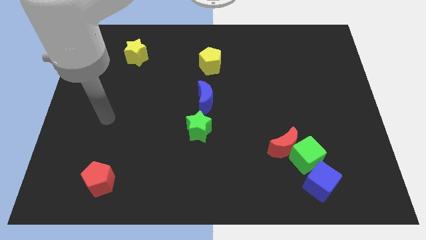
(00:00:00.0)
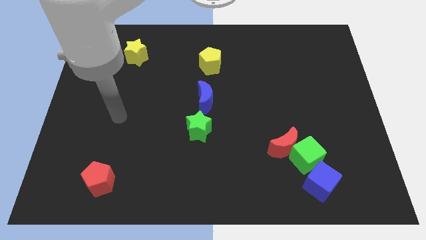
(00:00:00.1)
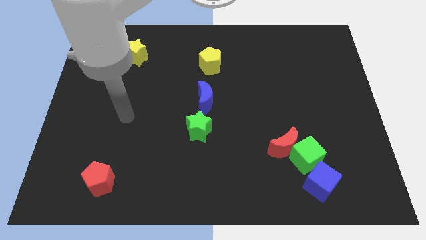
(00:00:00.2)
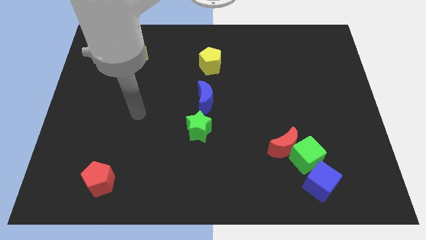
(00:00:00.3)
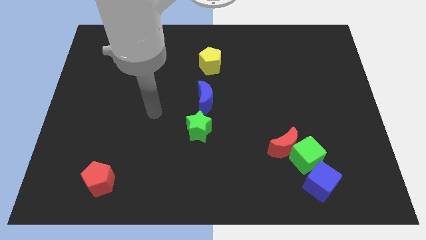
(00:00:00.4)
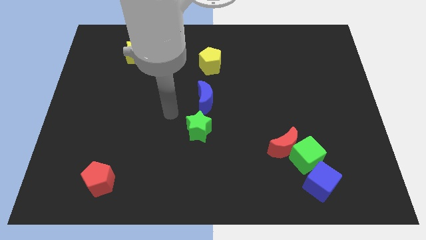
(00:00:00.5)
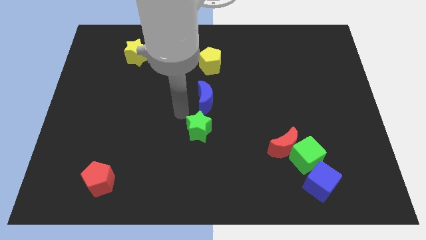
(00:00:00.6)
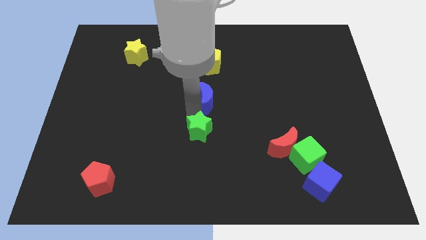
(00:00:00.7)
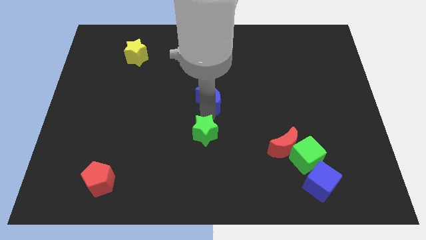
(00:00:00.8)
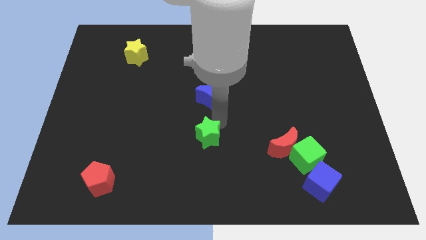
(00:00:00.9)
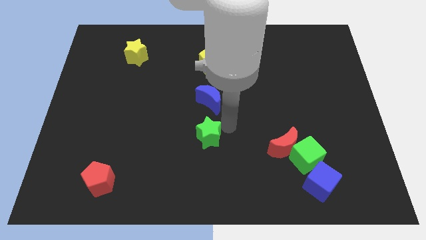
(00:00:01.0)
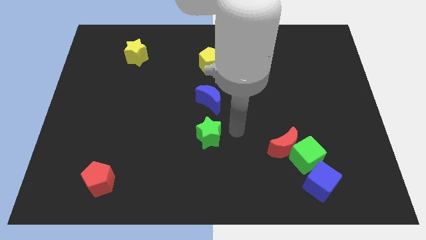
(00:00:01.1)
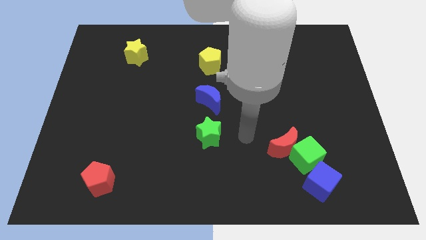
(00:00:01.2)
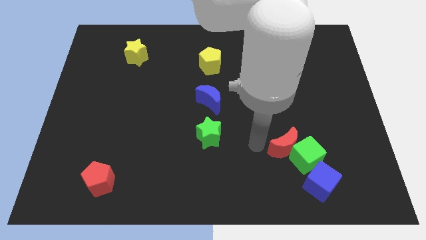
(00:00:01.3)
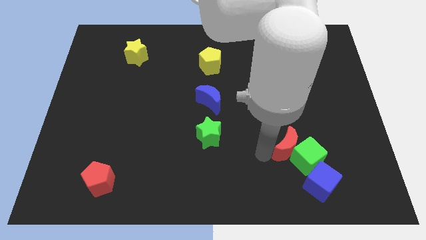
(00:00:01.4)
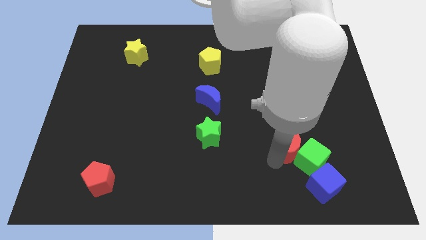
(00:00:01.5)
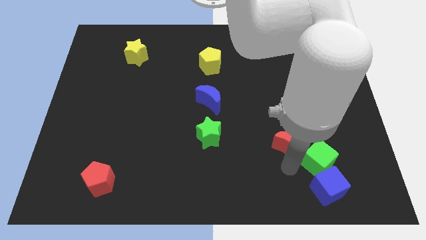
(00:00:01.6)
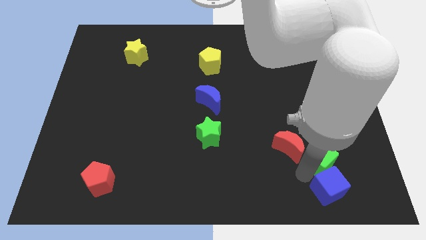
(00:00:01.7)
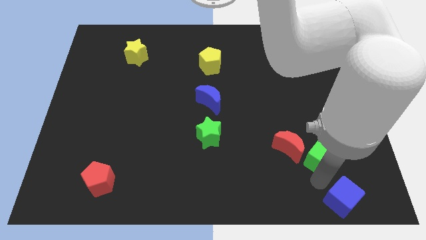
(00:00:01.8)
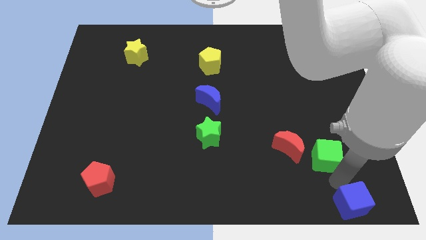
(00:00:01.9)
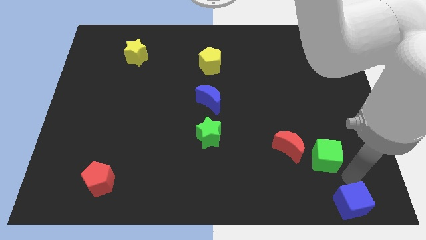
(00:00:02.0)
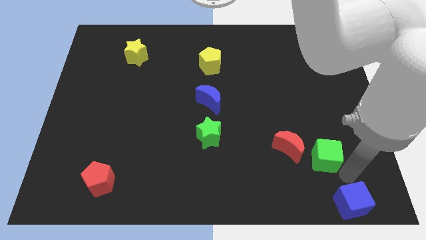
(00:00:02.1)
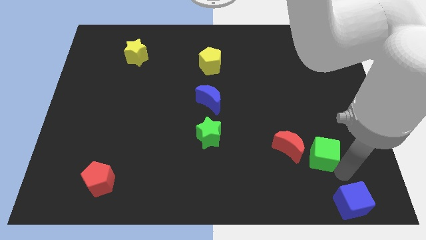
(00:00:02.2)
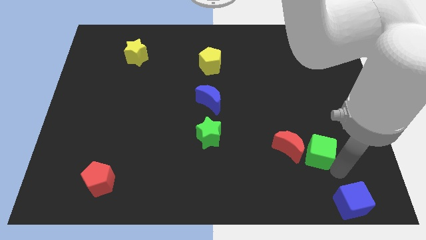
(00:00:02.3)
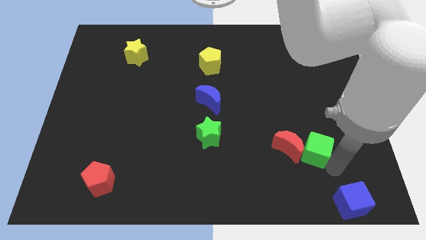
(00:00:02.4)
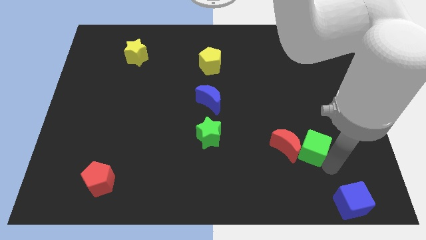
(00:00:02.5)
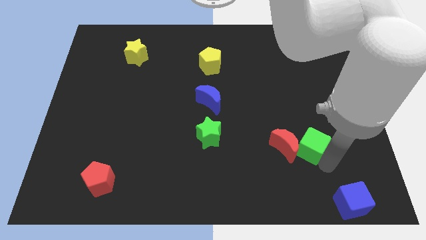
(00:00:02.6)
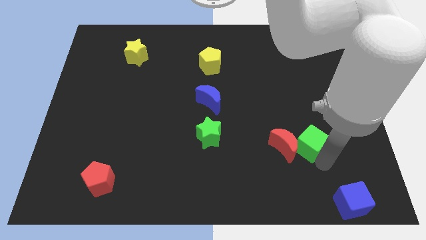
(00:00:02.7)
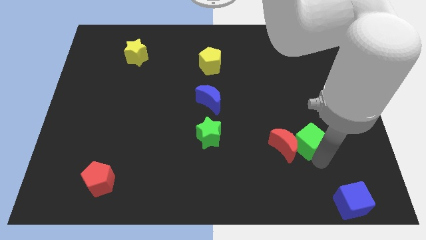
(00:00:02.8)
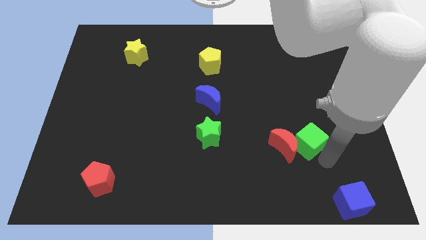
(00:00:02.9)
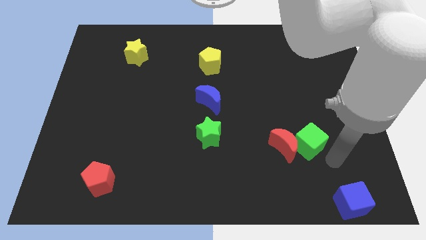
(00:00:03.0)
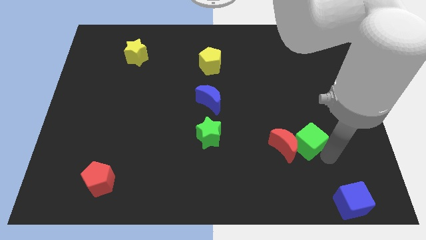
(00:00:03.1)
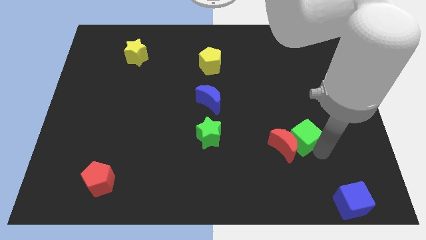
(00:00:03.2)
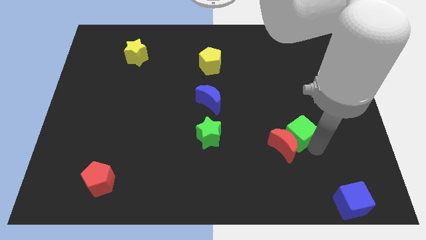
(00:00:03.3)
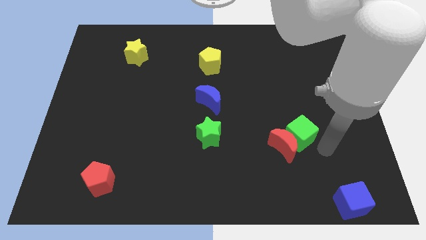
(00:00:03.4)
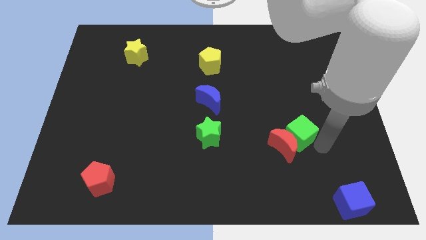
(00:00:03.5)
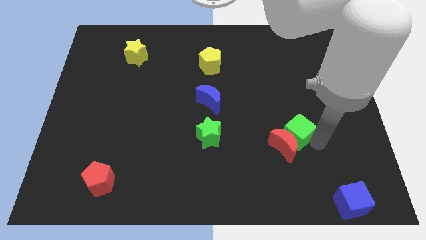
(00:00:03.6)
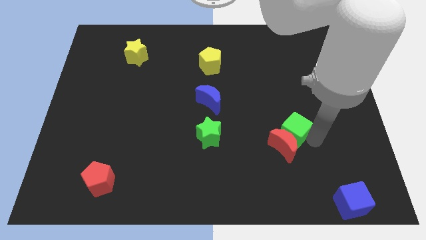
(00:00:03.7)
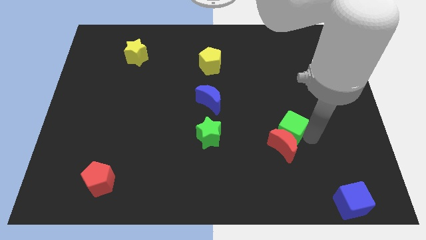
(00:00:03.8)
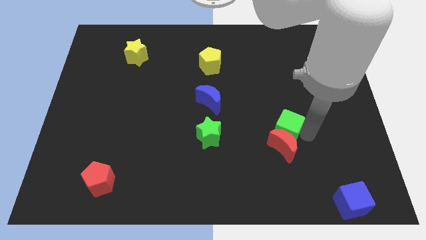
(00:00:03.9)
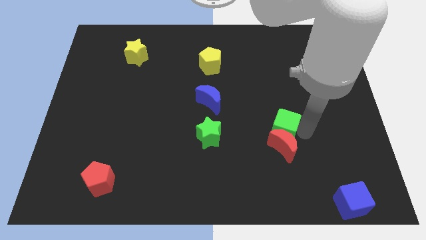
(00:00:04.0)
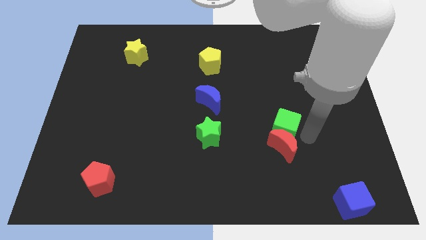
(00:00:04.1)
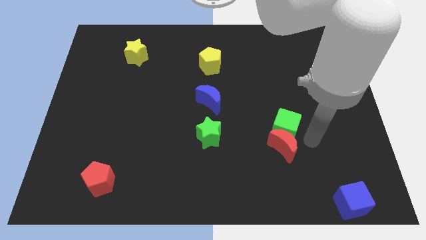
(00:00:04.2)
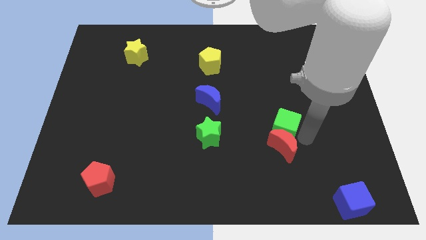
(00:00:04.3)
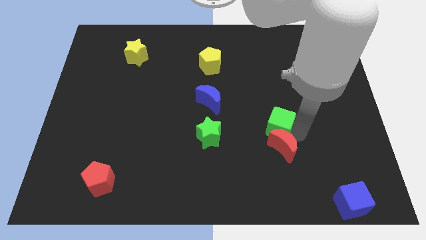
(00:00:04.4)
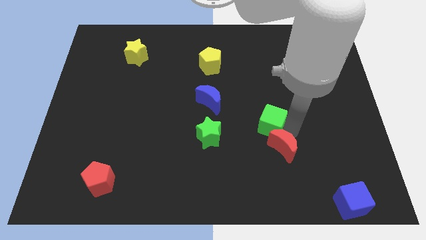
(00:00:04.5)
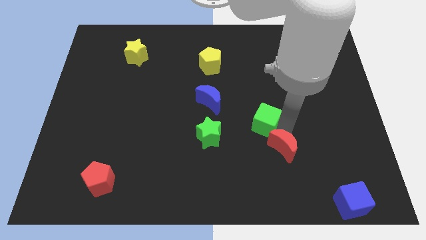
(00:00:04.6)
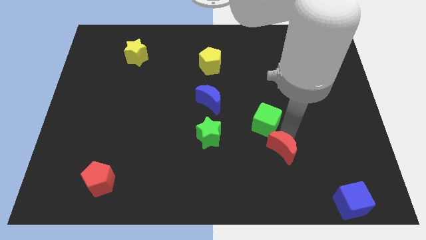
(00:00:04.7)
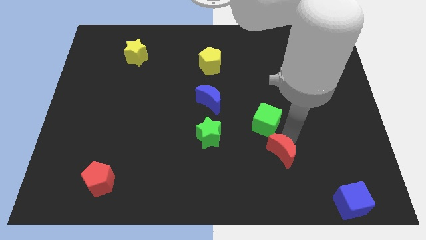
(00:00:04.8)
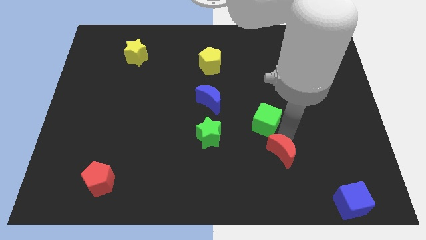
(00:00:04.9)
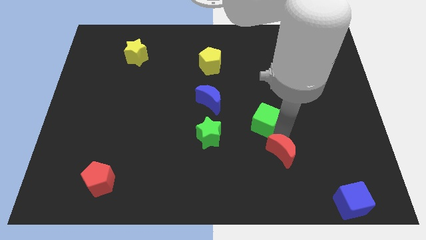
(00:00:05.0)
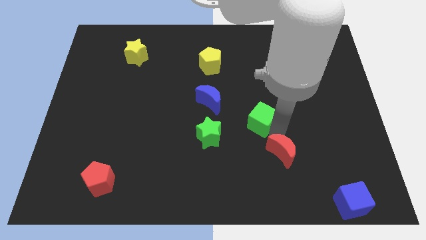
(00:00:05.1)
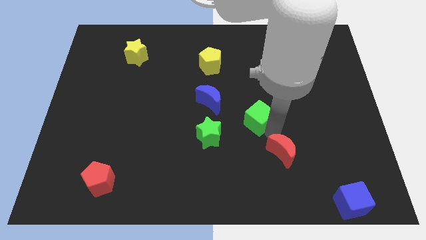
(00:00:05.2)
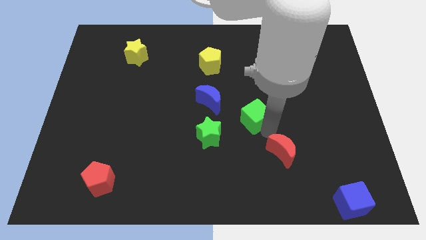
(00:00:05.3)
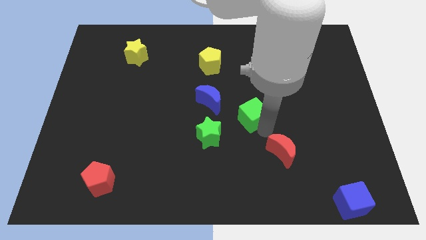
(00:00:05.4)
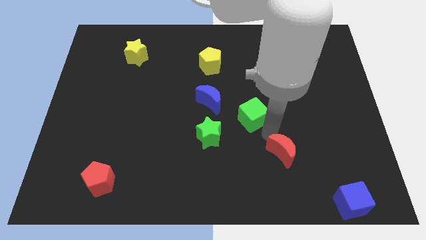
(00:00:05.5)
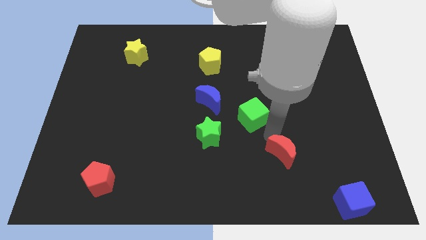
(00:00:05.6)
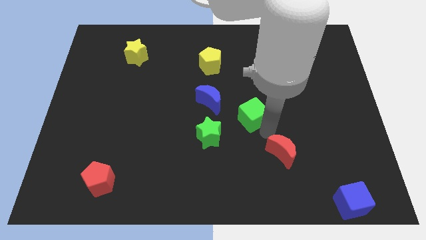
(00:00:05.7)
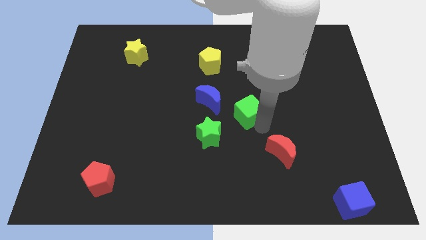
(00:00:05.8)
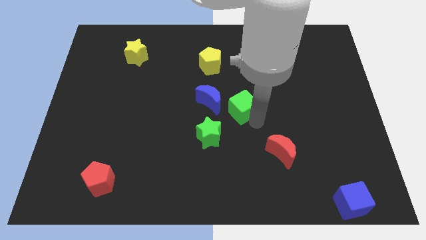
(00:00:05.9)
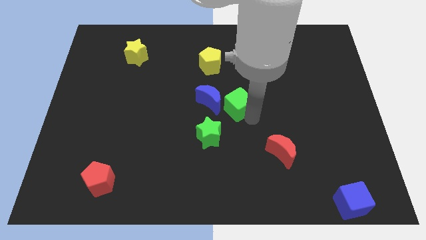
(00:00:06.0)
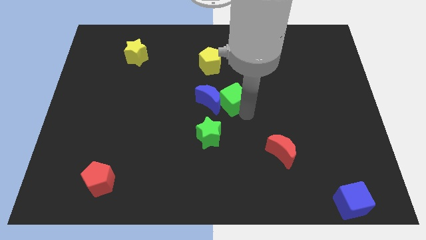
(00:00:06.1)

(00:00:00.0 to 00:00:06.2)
move the green cube up and to the left diagonally

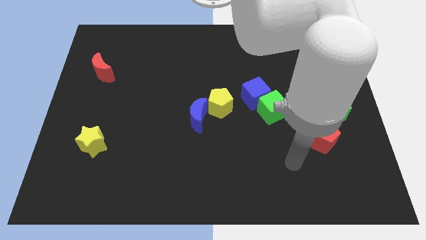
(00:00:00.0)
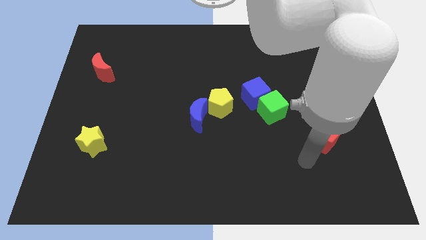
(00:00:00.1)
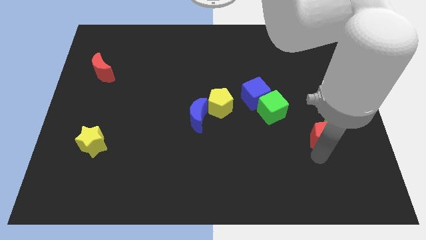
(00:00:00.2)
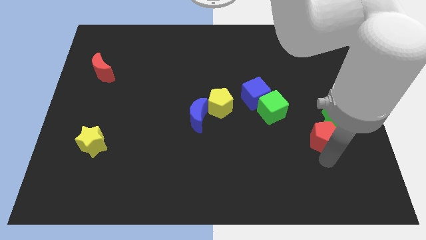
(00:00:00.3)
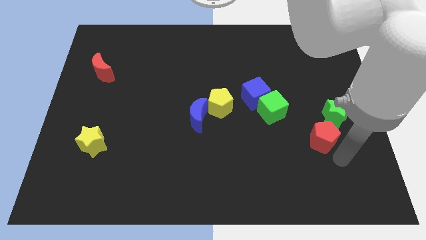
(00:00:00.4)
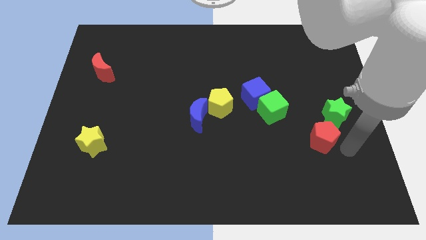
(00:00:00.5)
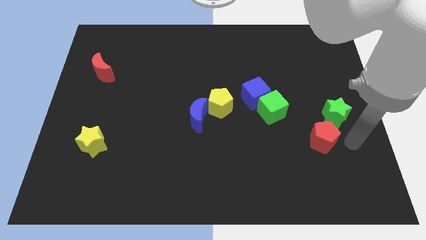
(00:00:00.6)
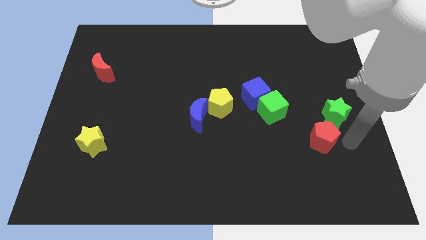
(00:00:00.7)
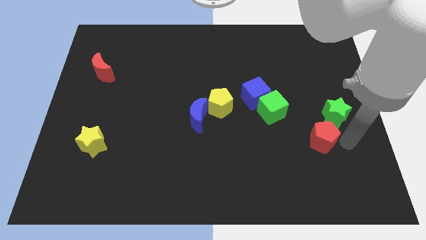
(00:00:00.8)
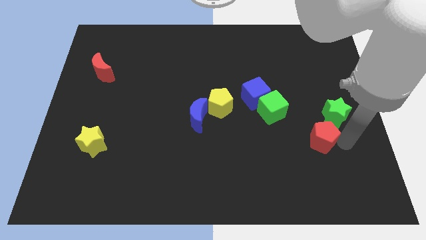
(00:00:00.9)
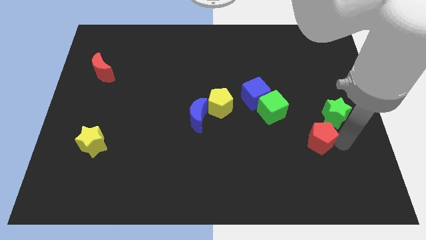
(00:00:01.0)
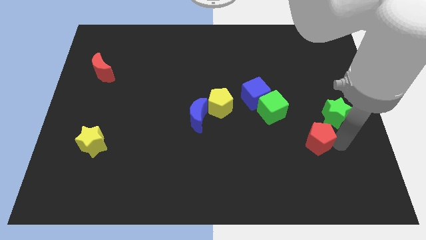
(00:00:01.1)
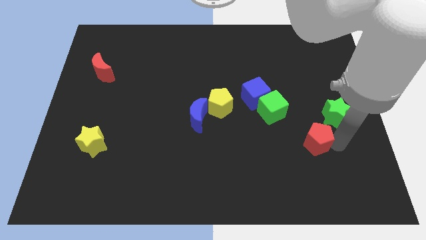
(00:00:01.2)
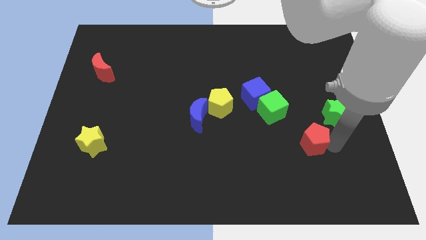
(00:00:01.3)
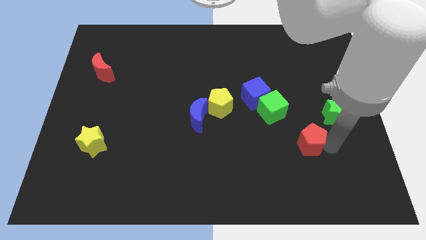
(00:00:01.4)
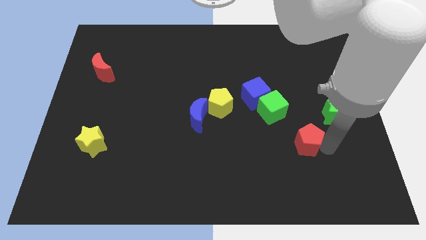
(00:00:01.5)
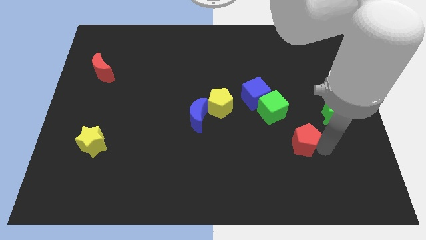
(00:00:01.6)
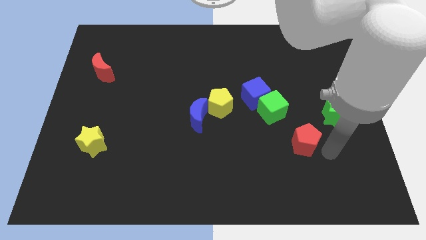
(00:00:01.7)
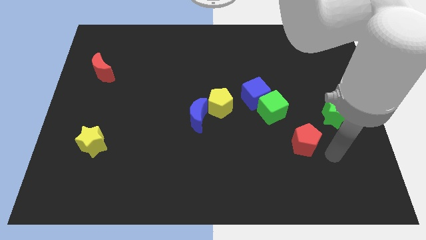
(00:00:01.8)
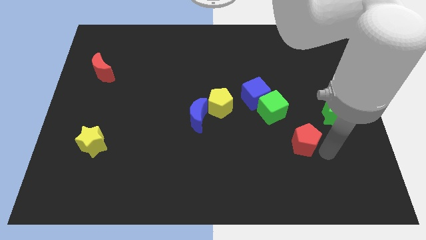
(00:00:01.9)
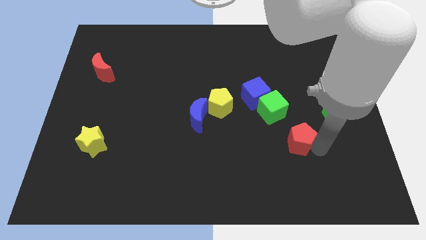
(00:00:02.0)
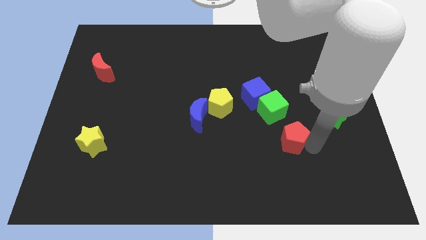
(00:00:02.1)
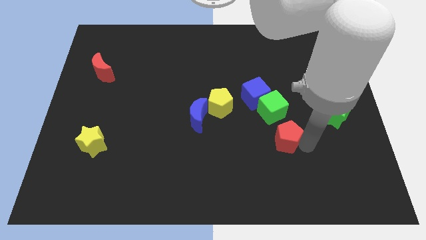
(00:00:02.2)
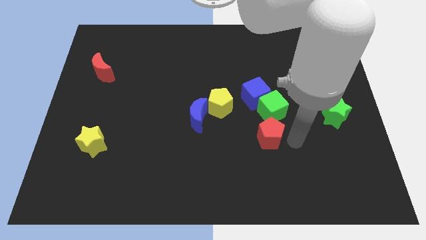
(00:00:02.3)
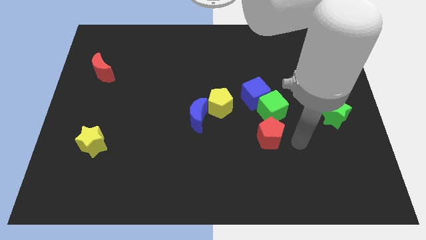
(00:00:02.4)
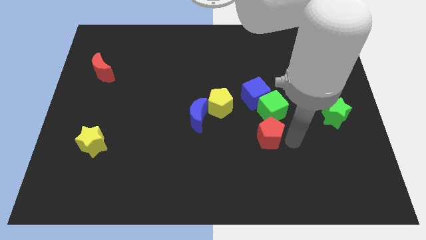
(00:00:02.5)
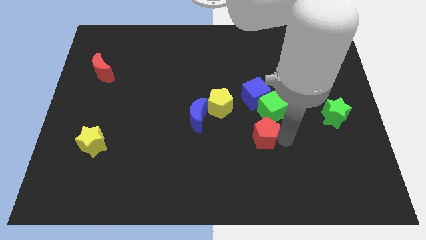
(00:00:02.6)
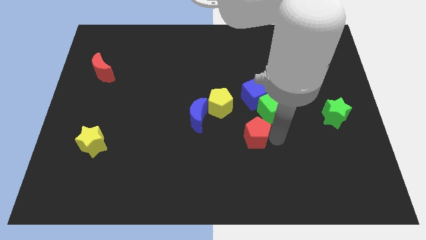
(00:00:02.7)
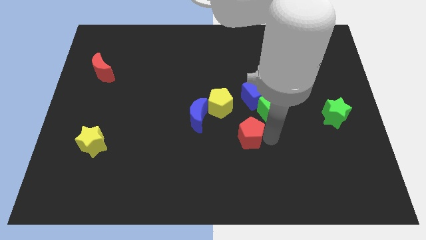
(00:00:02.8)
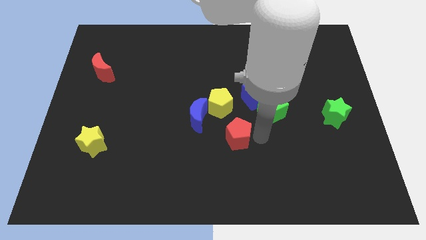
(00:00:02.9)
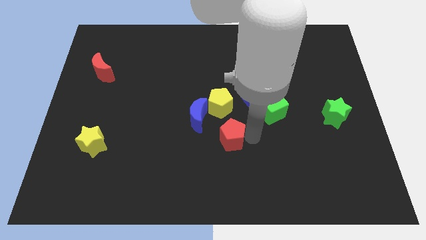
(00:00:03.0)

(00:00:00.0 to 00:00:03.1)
push the red pentagon left
